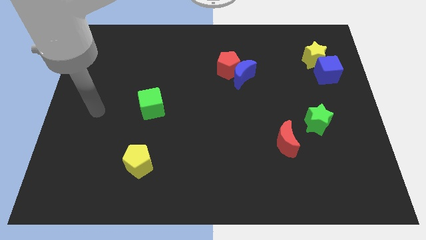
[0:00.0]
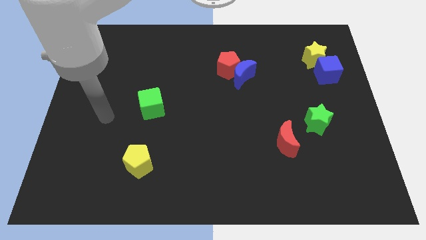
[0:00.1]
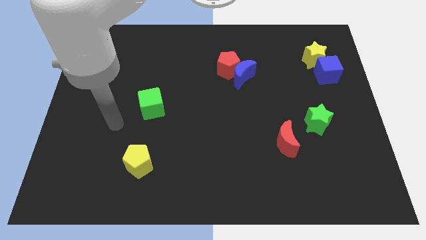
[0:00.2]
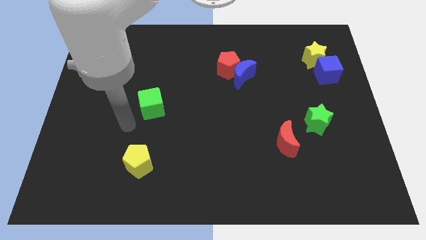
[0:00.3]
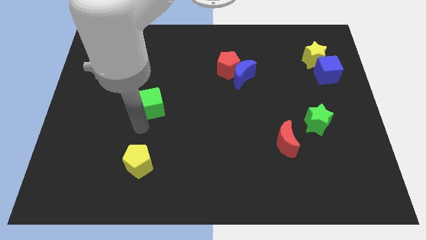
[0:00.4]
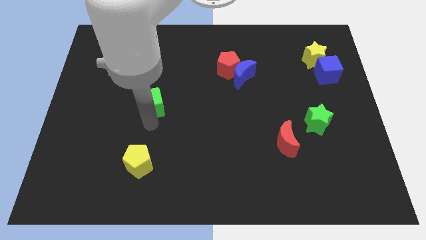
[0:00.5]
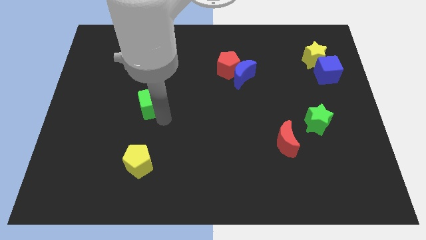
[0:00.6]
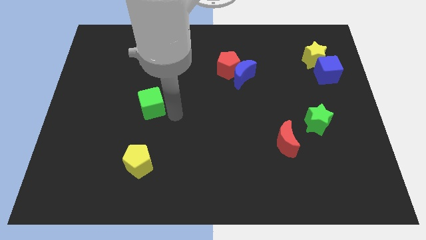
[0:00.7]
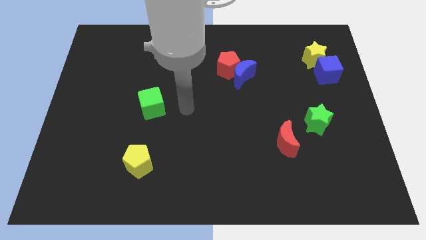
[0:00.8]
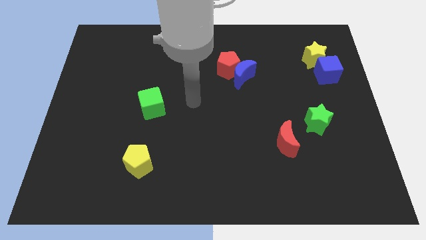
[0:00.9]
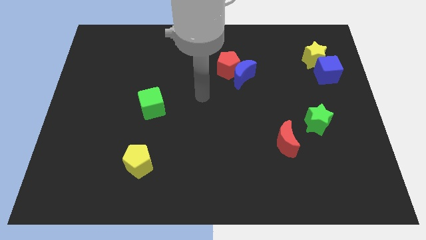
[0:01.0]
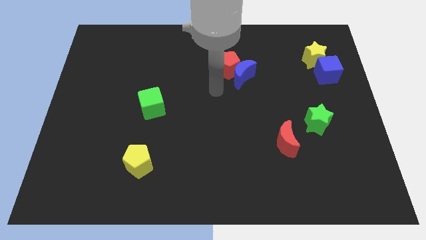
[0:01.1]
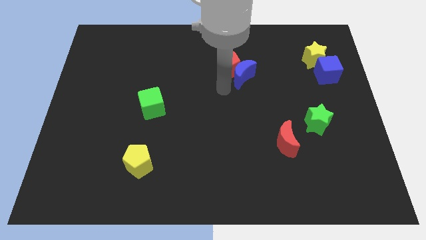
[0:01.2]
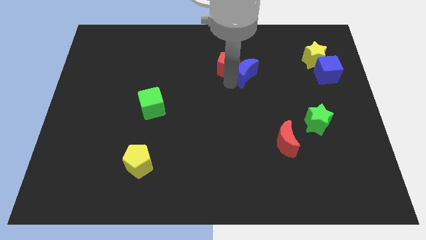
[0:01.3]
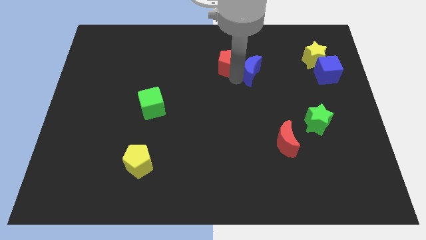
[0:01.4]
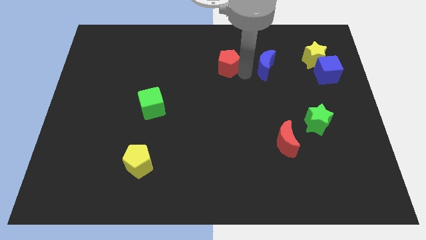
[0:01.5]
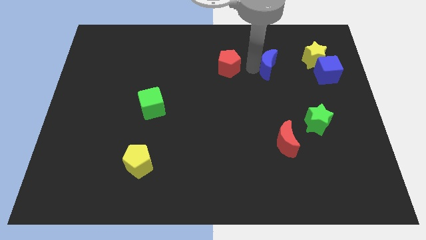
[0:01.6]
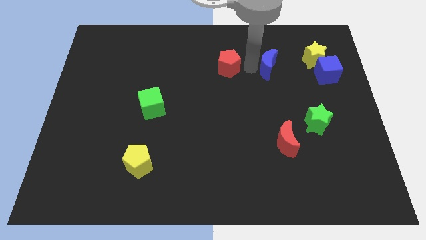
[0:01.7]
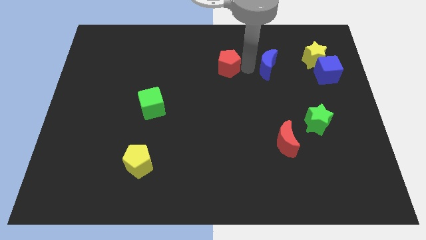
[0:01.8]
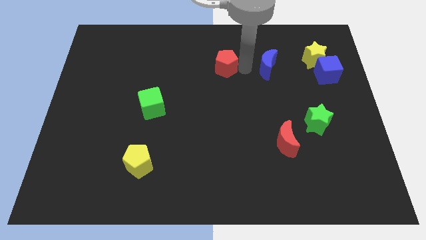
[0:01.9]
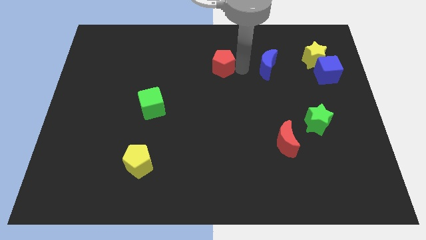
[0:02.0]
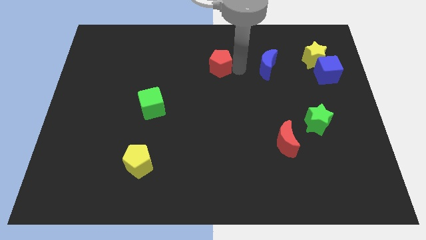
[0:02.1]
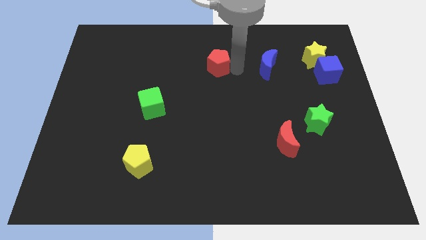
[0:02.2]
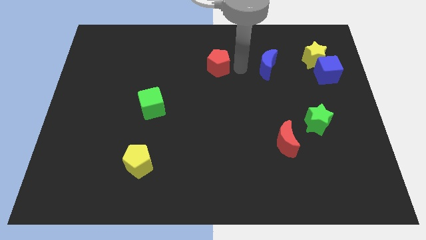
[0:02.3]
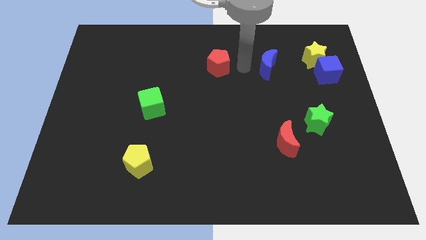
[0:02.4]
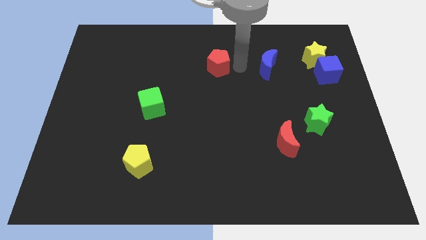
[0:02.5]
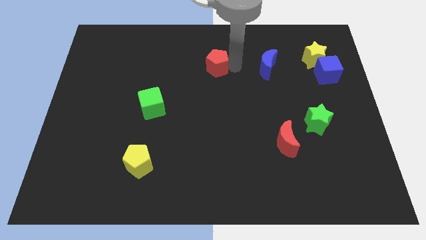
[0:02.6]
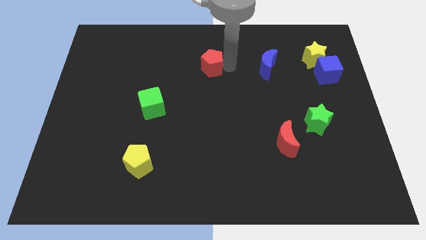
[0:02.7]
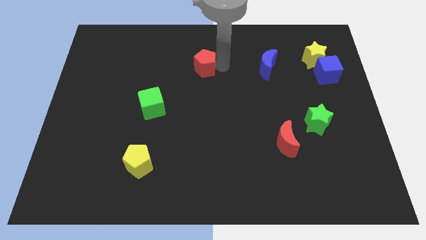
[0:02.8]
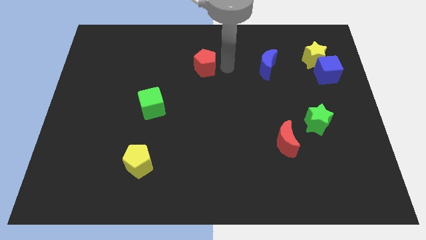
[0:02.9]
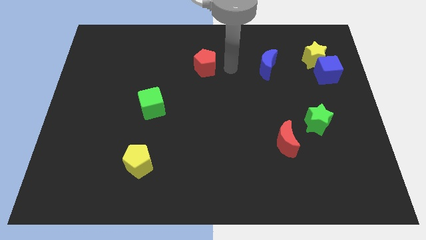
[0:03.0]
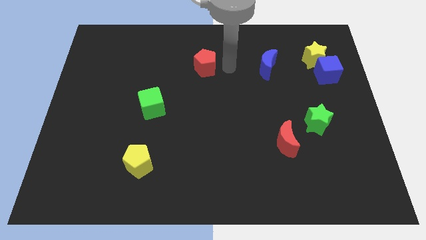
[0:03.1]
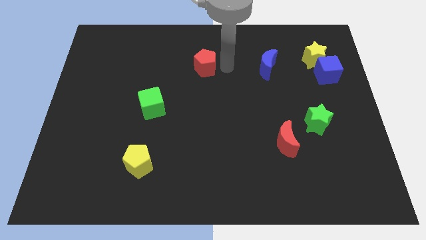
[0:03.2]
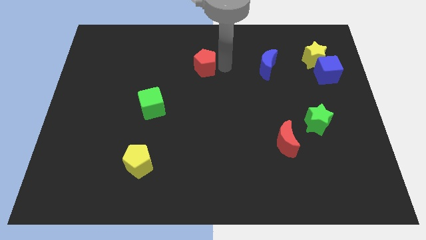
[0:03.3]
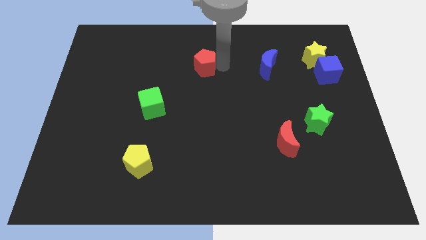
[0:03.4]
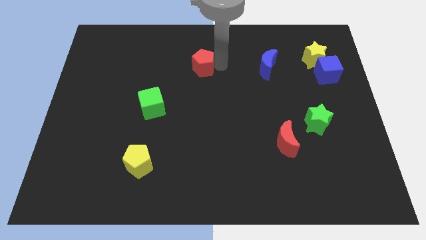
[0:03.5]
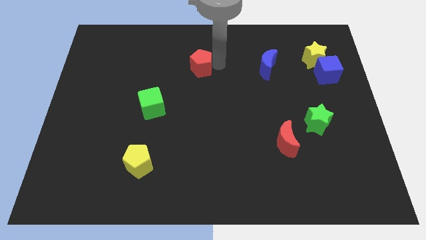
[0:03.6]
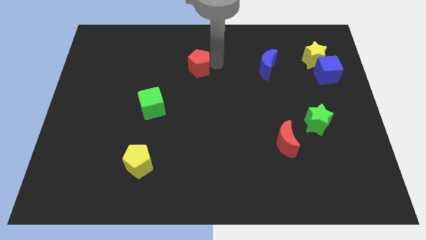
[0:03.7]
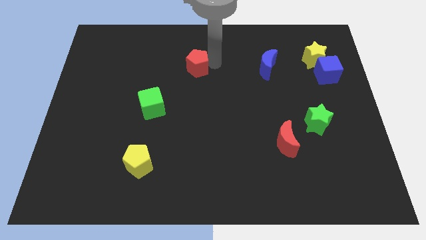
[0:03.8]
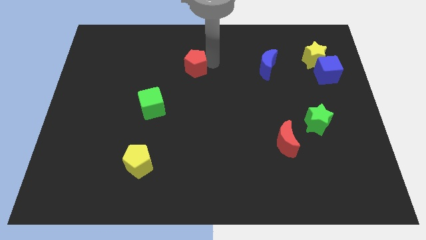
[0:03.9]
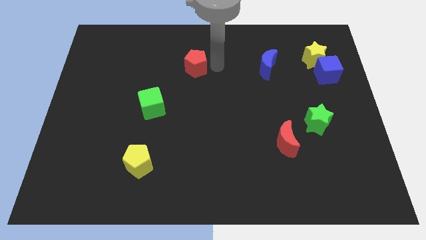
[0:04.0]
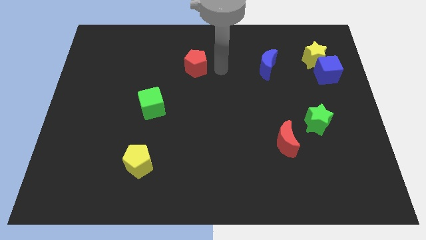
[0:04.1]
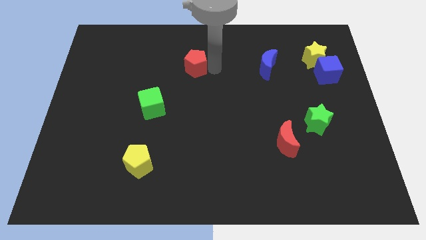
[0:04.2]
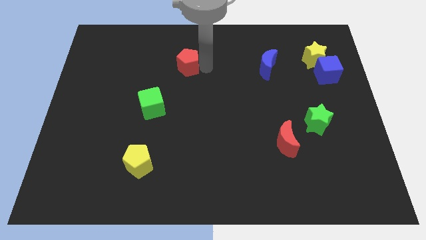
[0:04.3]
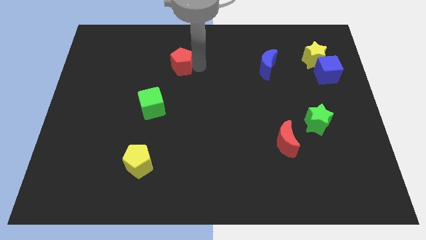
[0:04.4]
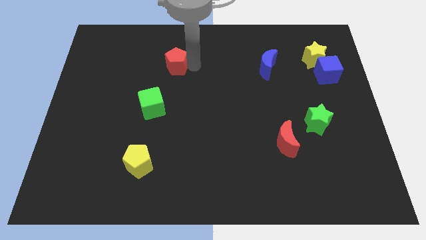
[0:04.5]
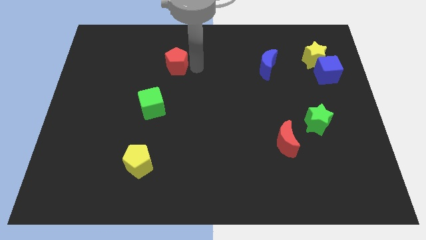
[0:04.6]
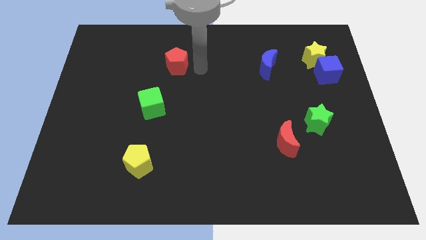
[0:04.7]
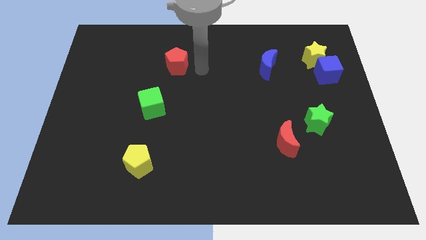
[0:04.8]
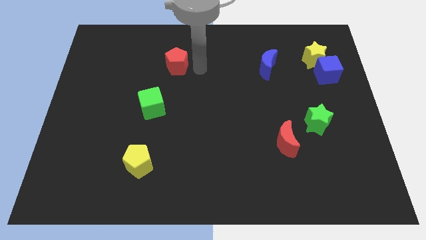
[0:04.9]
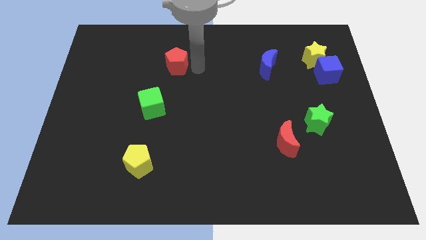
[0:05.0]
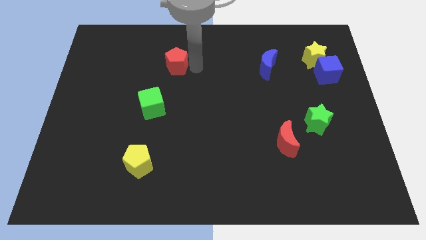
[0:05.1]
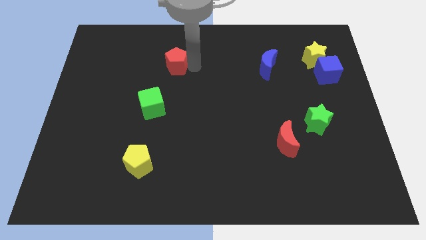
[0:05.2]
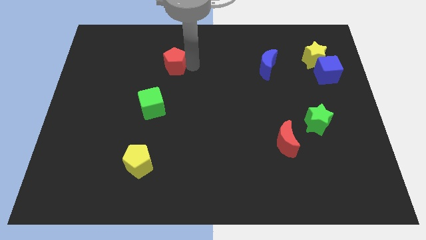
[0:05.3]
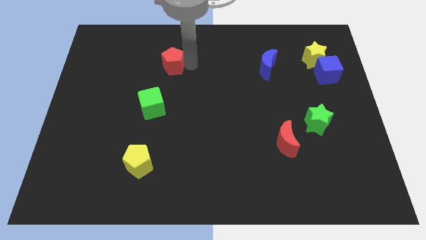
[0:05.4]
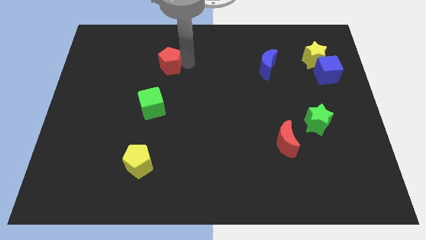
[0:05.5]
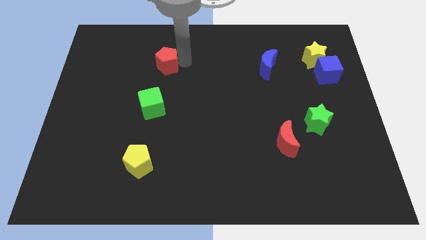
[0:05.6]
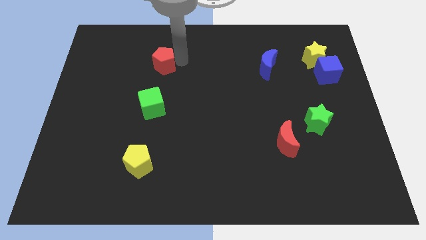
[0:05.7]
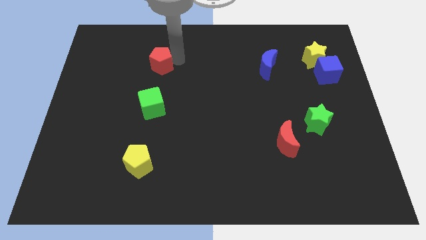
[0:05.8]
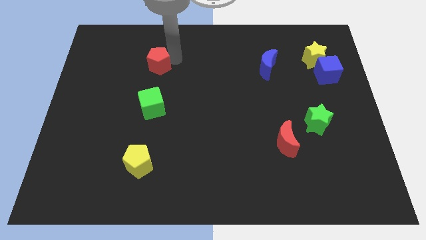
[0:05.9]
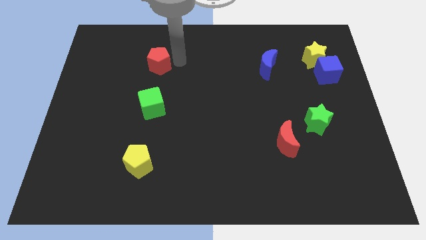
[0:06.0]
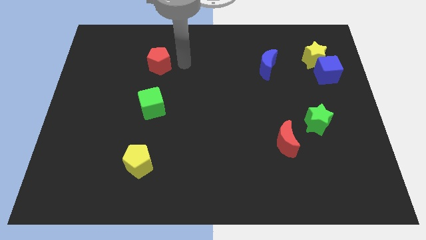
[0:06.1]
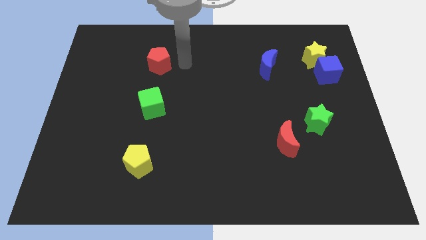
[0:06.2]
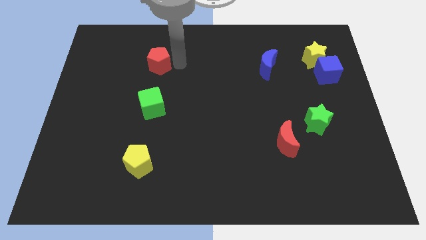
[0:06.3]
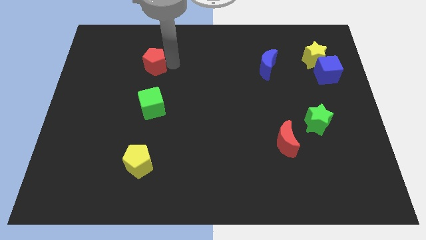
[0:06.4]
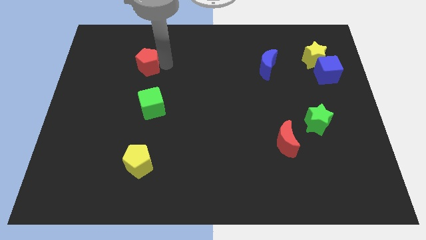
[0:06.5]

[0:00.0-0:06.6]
move the red pentagon to the left

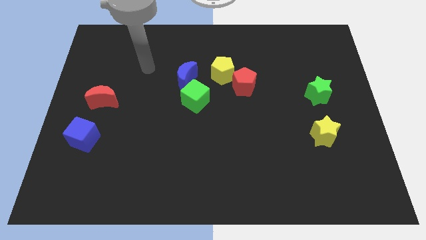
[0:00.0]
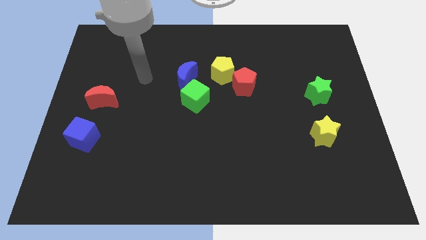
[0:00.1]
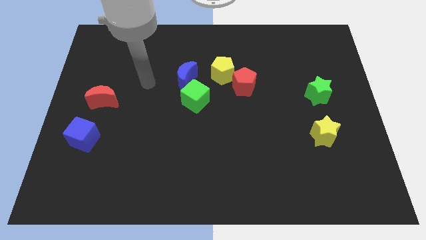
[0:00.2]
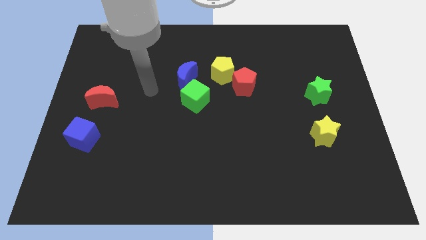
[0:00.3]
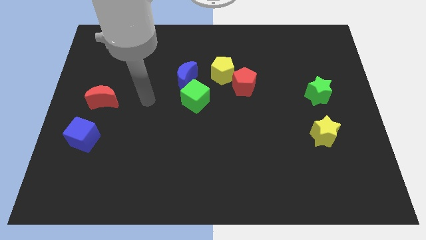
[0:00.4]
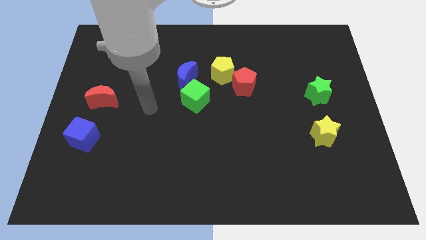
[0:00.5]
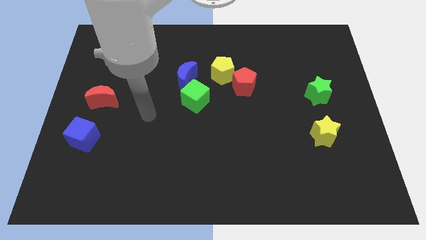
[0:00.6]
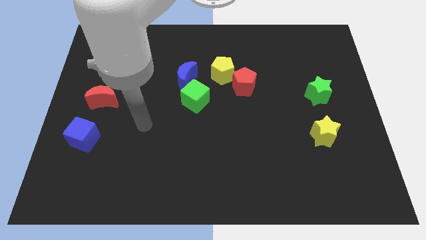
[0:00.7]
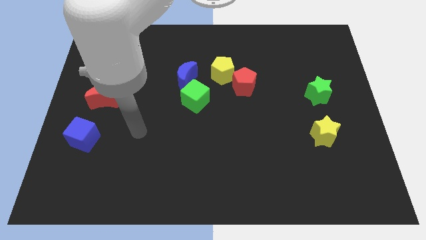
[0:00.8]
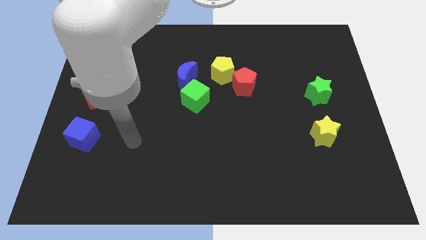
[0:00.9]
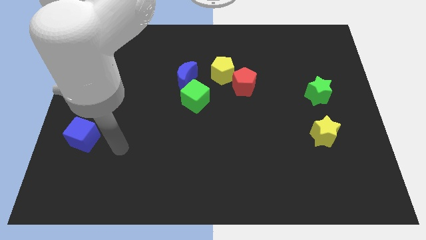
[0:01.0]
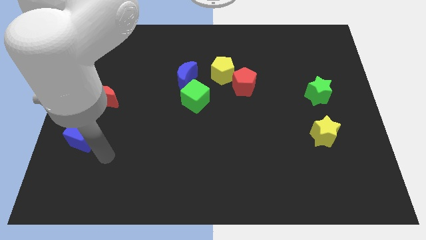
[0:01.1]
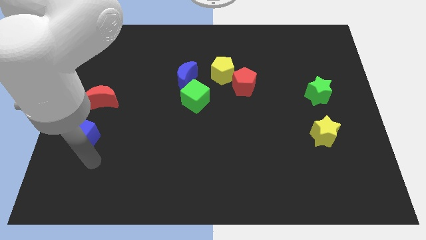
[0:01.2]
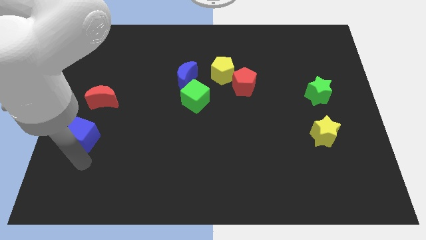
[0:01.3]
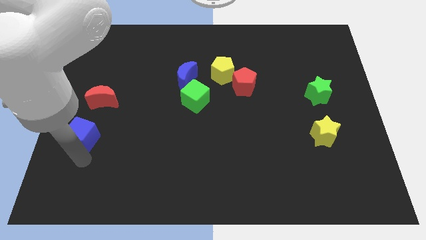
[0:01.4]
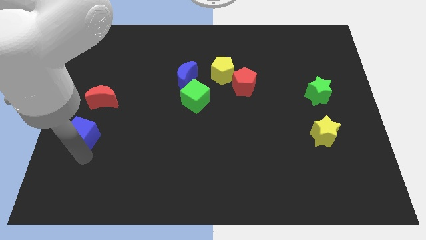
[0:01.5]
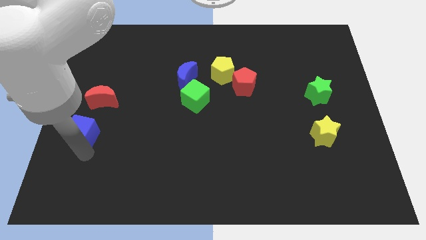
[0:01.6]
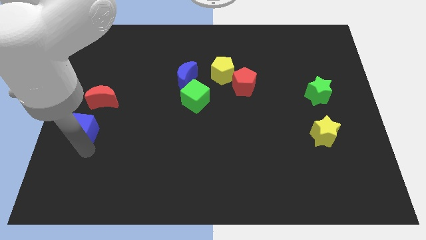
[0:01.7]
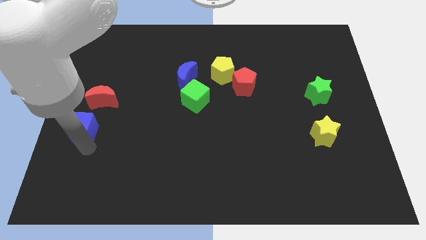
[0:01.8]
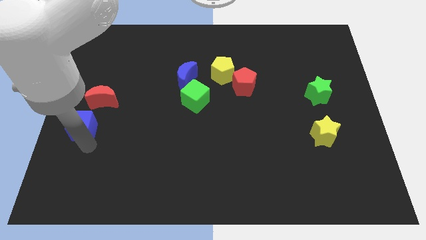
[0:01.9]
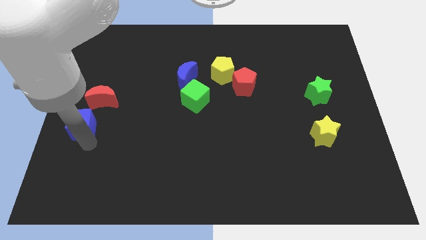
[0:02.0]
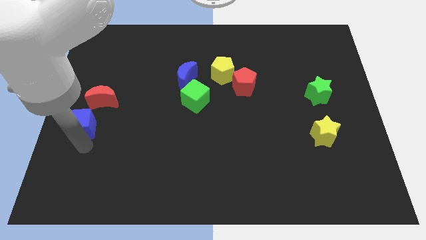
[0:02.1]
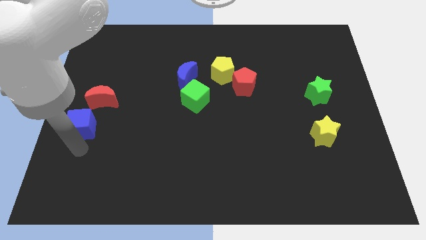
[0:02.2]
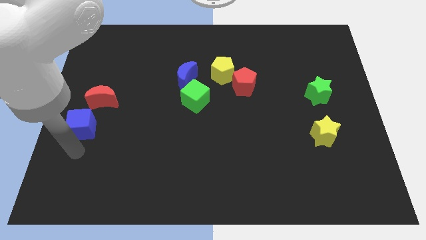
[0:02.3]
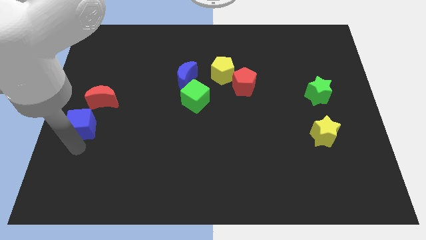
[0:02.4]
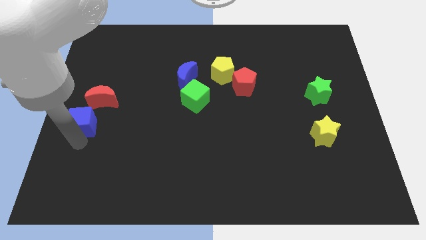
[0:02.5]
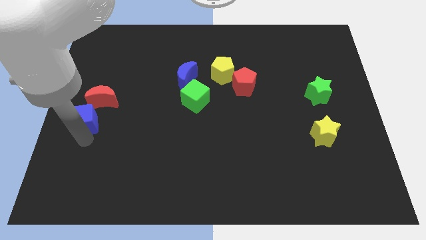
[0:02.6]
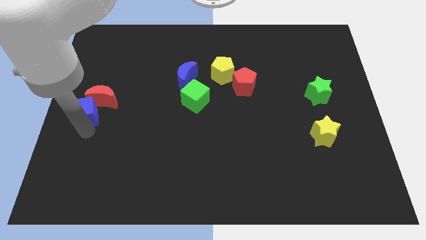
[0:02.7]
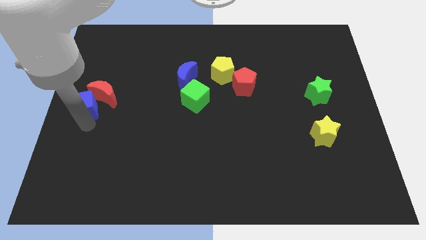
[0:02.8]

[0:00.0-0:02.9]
slightly push the blue cube upwards
